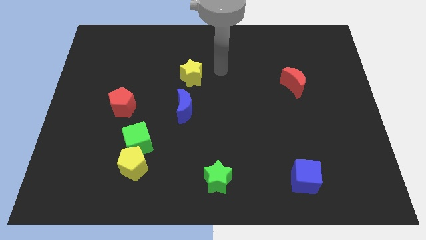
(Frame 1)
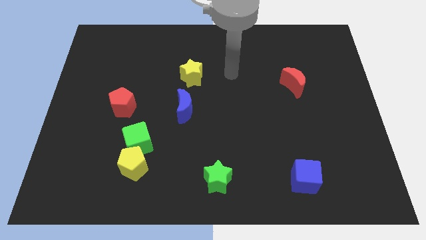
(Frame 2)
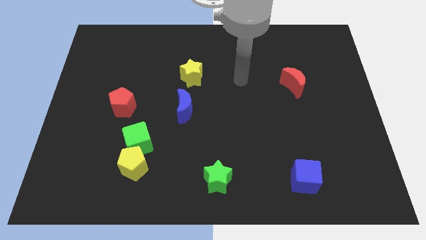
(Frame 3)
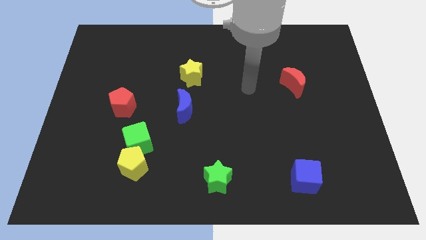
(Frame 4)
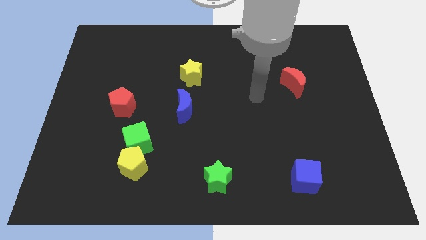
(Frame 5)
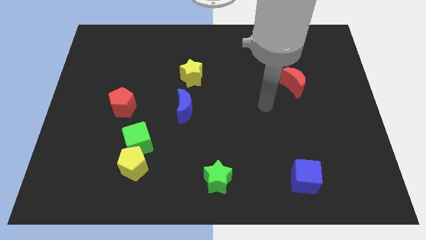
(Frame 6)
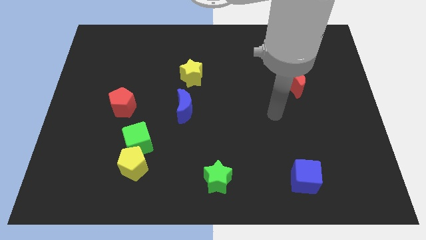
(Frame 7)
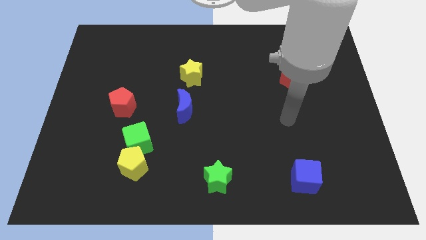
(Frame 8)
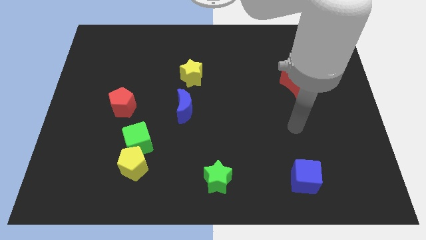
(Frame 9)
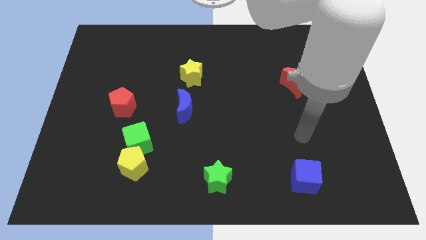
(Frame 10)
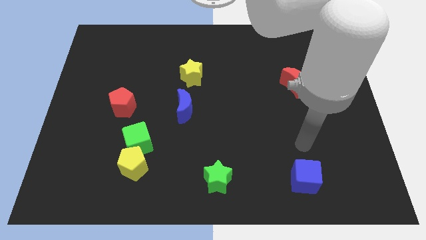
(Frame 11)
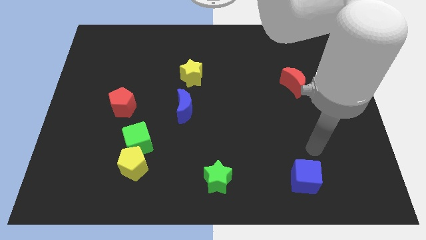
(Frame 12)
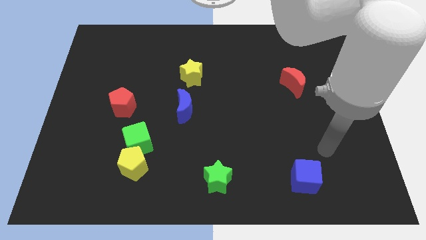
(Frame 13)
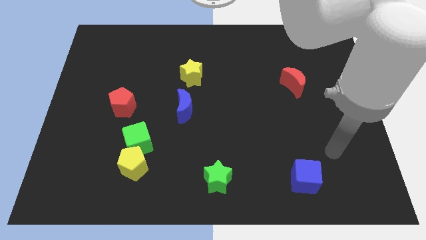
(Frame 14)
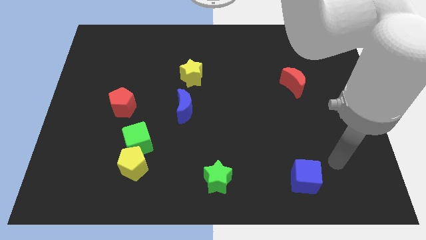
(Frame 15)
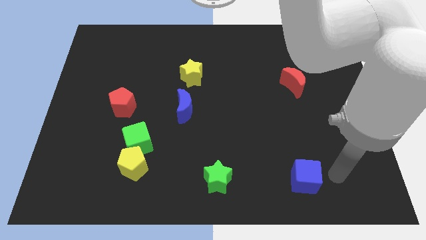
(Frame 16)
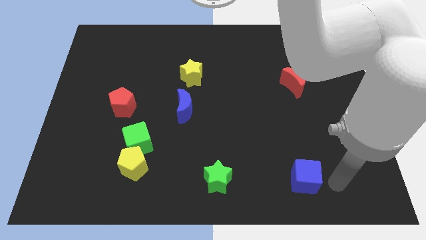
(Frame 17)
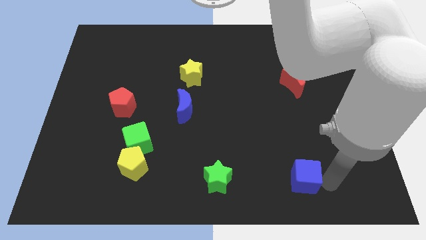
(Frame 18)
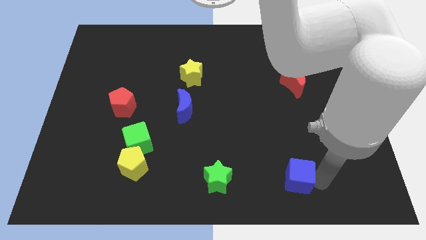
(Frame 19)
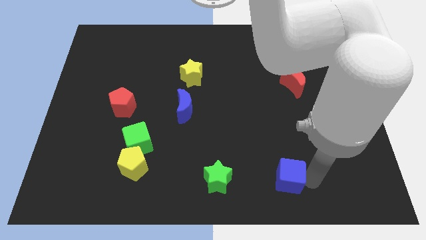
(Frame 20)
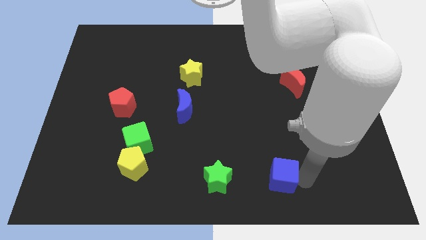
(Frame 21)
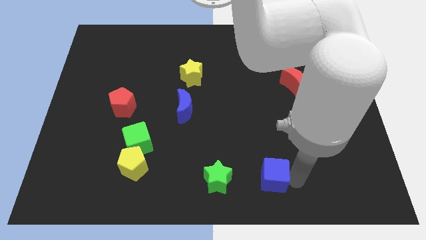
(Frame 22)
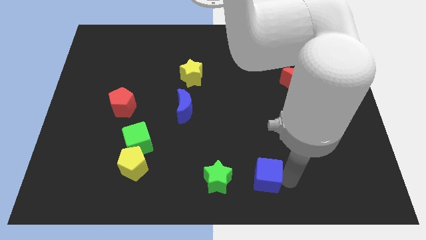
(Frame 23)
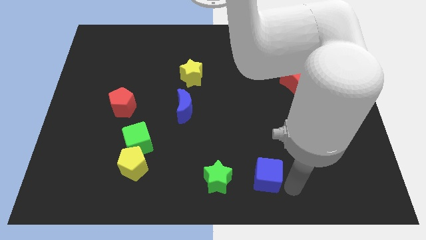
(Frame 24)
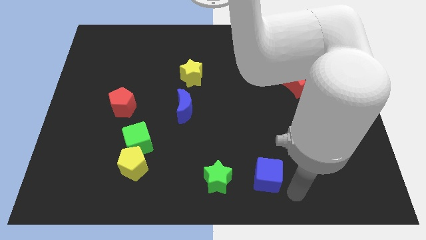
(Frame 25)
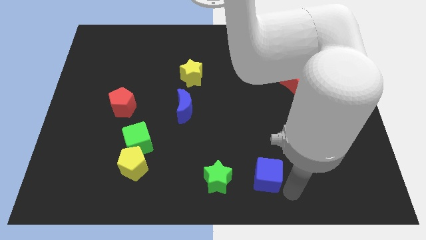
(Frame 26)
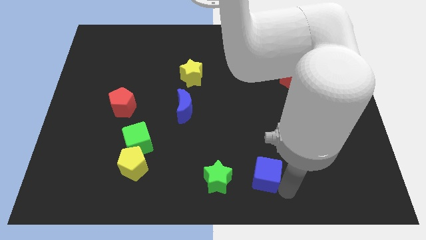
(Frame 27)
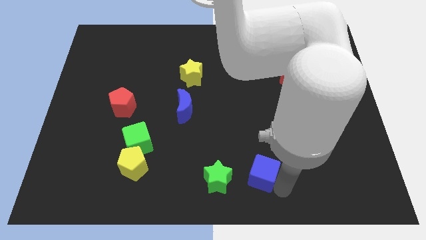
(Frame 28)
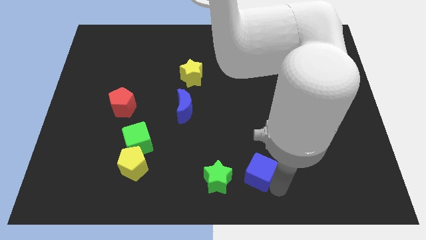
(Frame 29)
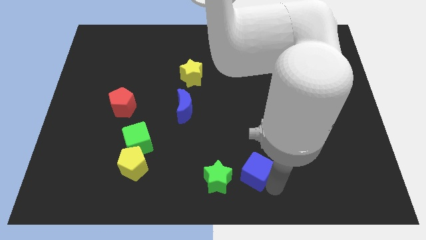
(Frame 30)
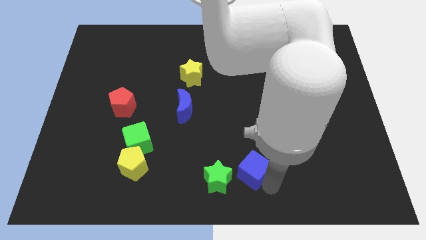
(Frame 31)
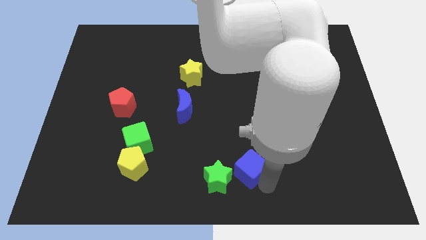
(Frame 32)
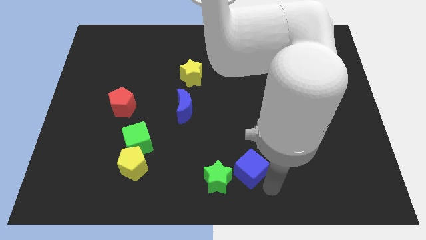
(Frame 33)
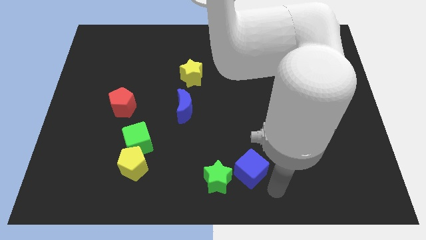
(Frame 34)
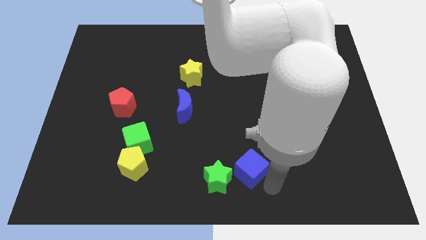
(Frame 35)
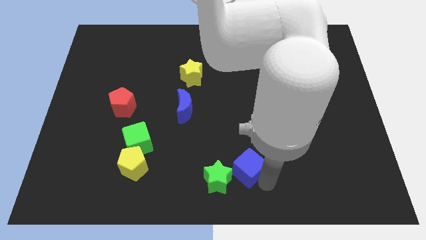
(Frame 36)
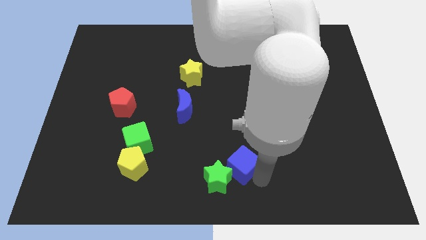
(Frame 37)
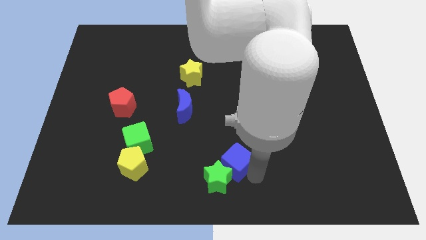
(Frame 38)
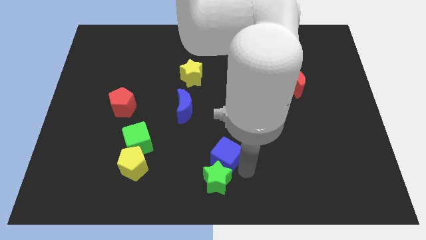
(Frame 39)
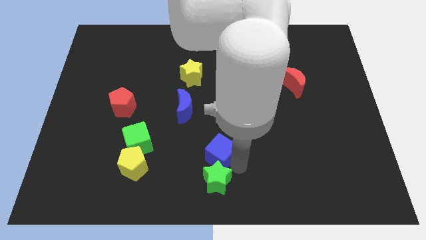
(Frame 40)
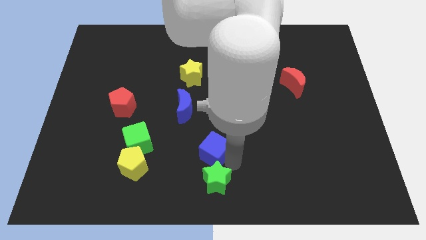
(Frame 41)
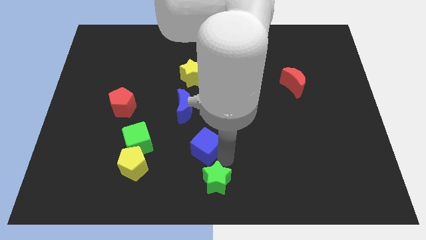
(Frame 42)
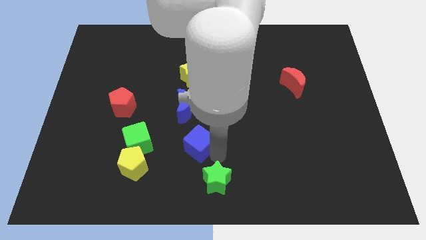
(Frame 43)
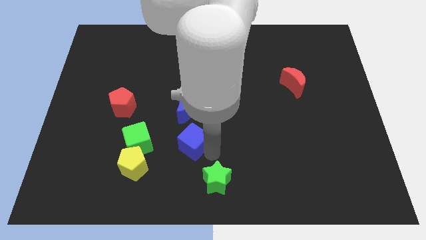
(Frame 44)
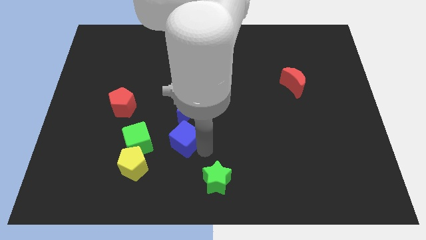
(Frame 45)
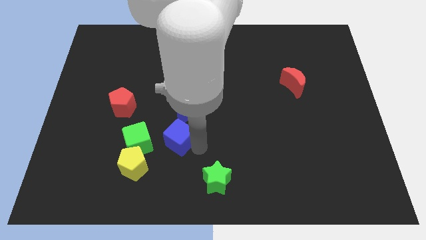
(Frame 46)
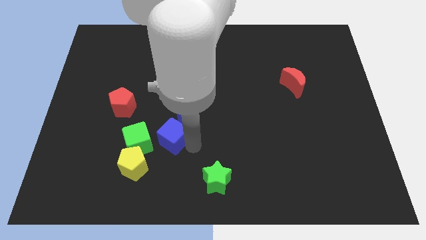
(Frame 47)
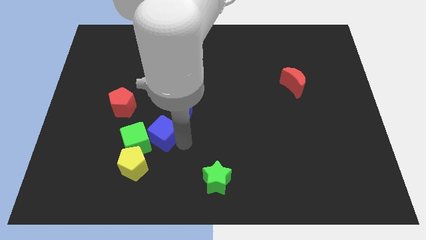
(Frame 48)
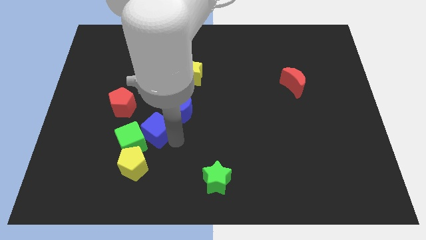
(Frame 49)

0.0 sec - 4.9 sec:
push the blue cube diagonally down and to the right of the red pentagon

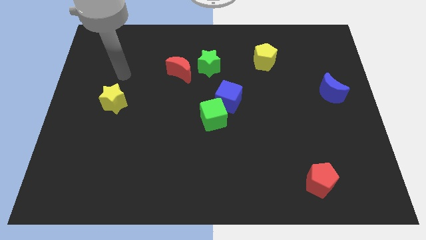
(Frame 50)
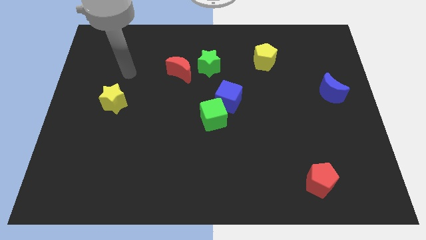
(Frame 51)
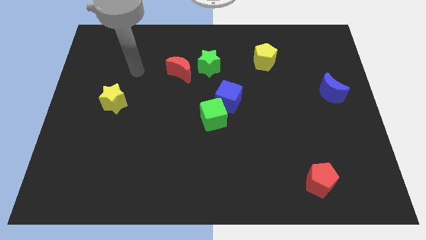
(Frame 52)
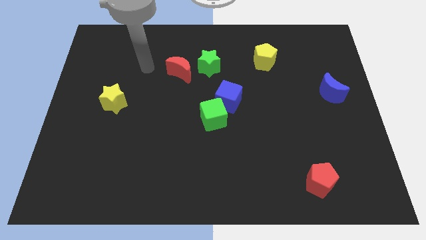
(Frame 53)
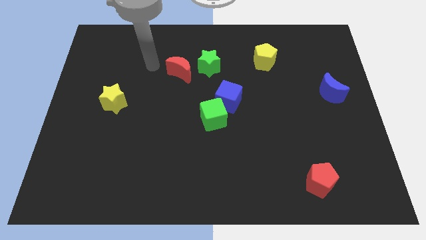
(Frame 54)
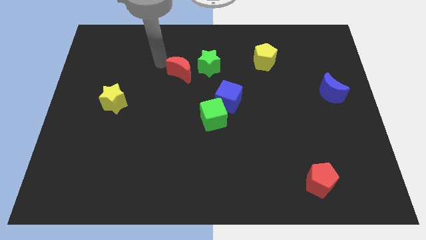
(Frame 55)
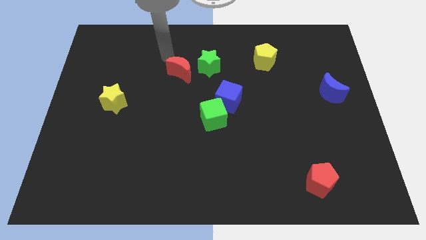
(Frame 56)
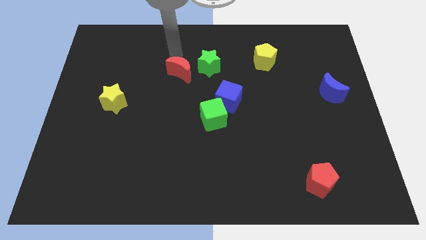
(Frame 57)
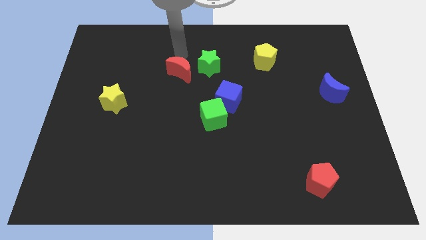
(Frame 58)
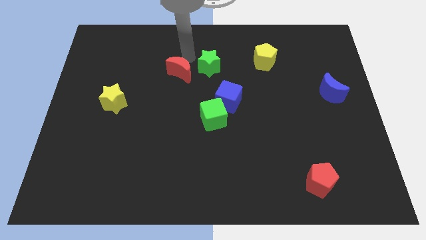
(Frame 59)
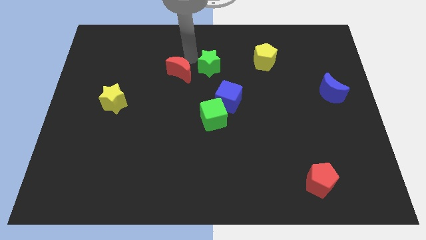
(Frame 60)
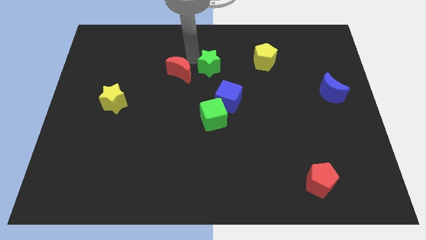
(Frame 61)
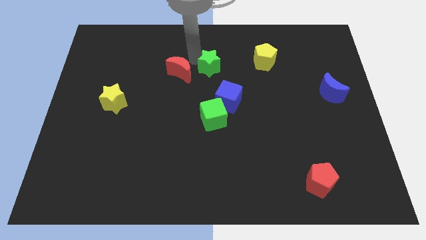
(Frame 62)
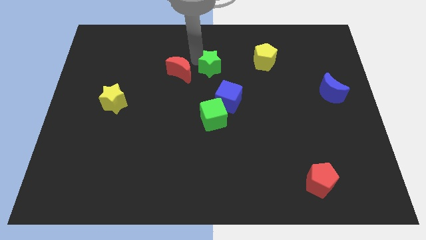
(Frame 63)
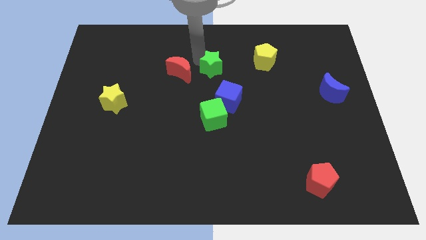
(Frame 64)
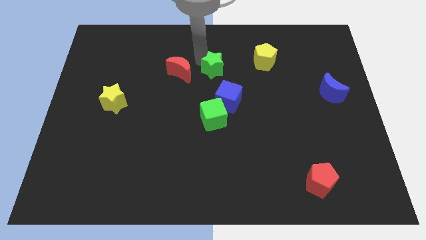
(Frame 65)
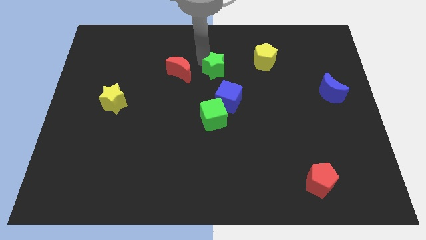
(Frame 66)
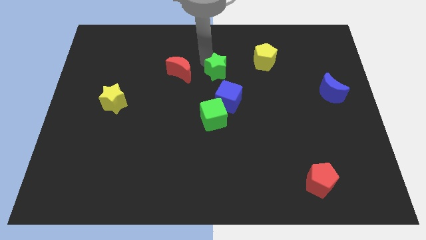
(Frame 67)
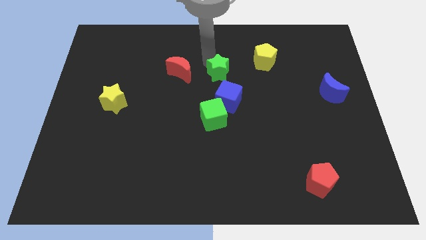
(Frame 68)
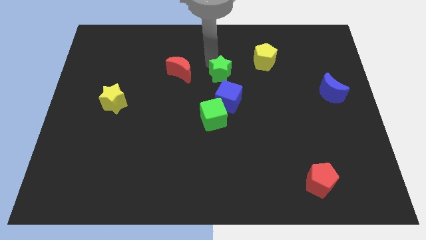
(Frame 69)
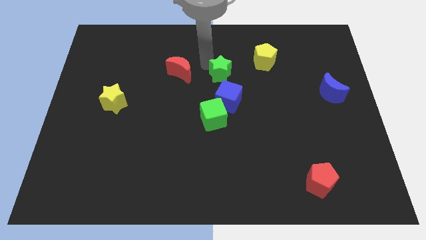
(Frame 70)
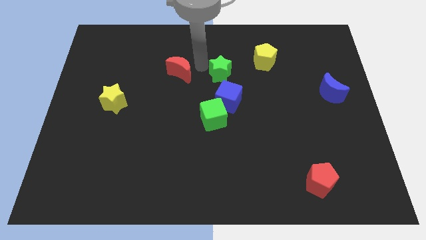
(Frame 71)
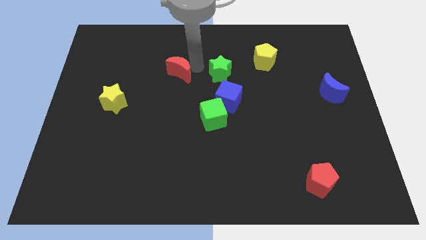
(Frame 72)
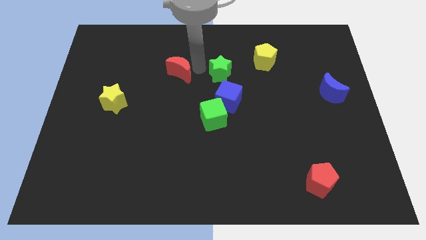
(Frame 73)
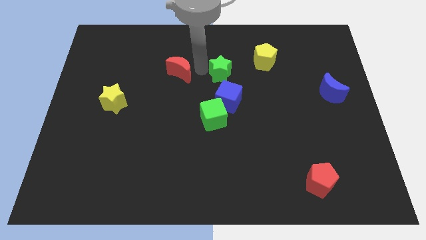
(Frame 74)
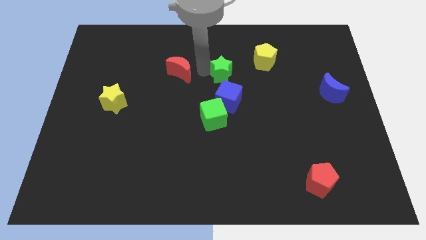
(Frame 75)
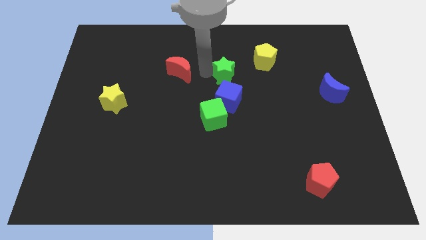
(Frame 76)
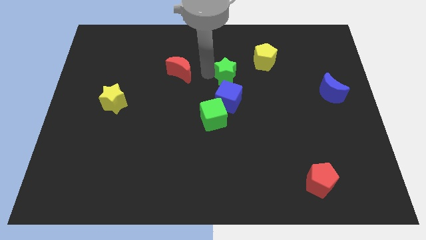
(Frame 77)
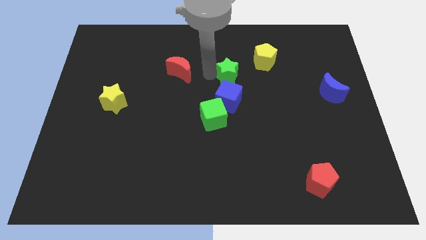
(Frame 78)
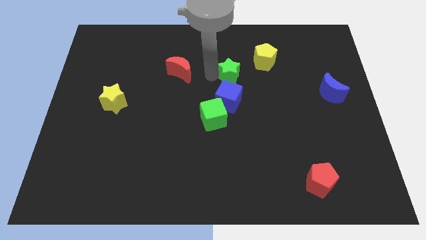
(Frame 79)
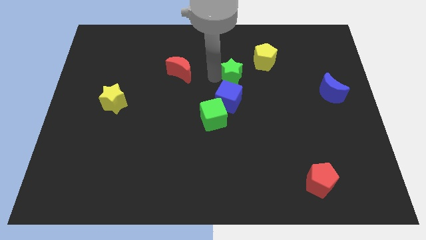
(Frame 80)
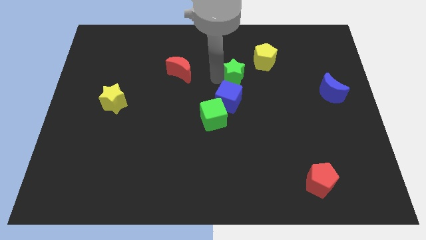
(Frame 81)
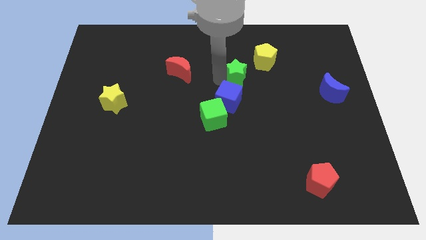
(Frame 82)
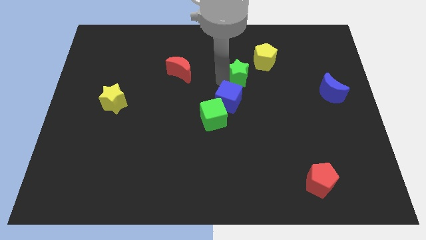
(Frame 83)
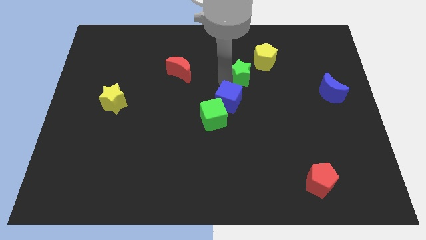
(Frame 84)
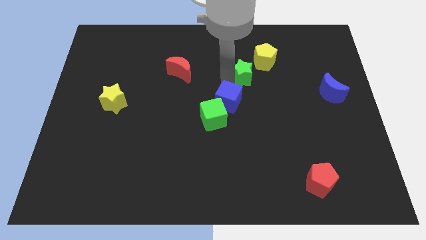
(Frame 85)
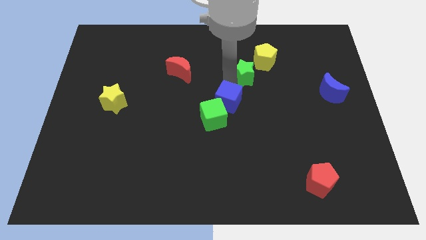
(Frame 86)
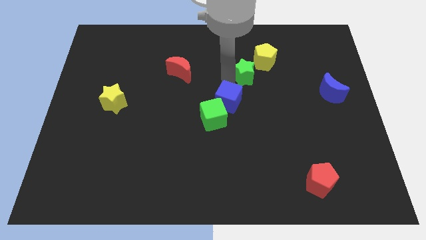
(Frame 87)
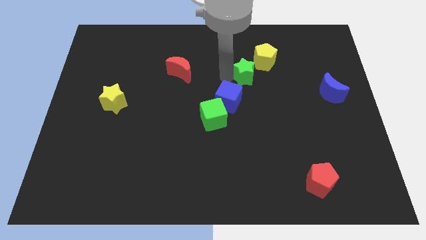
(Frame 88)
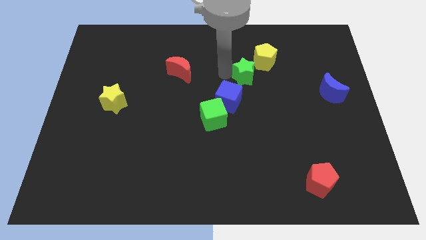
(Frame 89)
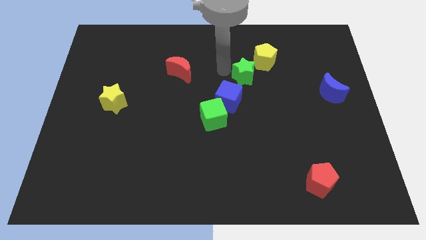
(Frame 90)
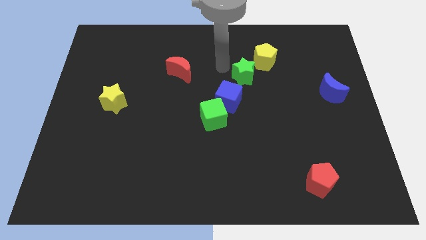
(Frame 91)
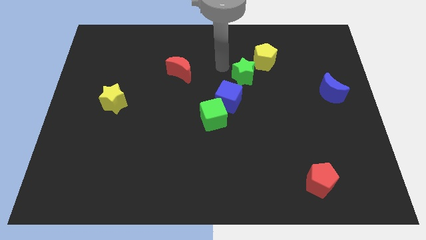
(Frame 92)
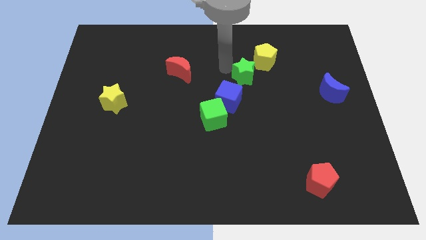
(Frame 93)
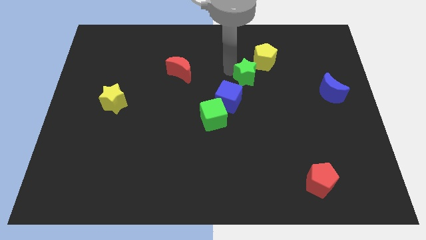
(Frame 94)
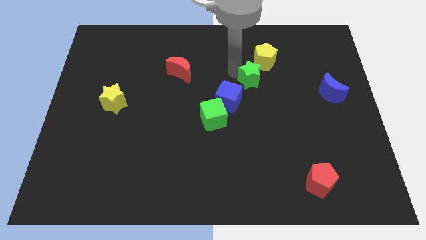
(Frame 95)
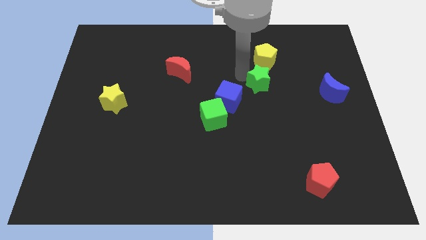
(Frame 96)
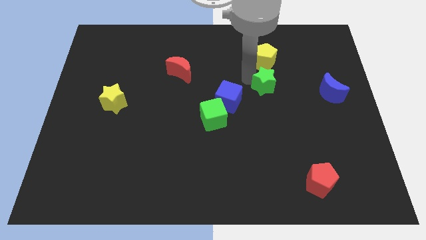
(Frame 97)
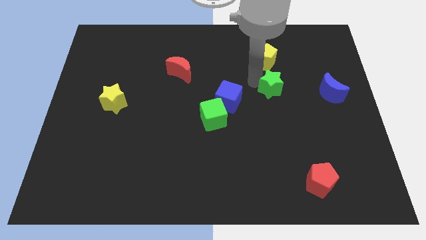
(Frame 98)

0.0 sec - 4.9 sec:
move the green star to the left of the blue moon
